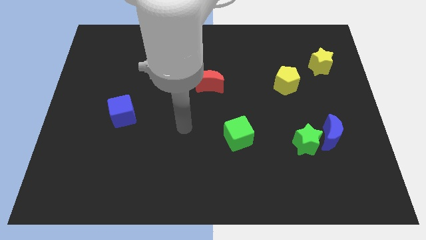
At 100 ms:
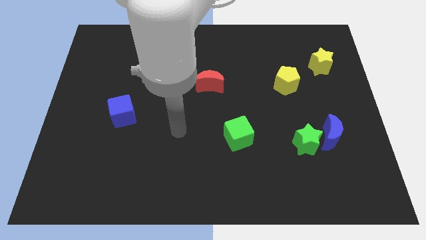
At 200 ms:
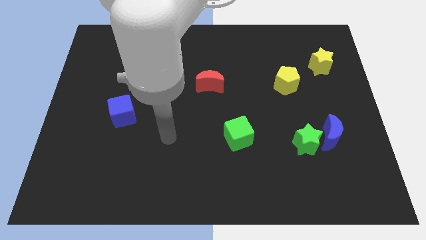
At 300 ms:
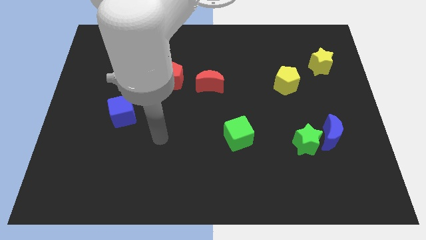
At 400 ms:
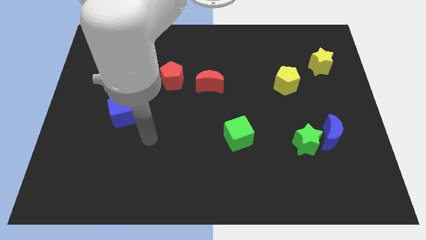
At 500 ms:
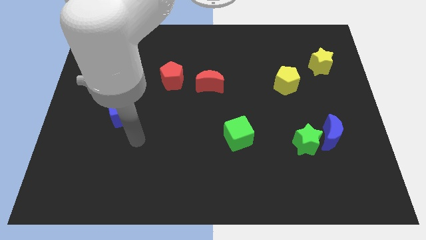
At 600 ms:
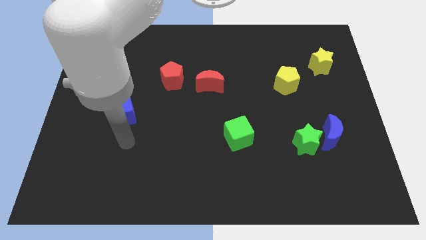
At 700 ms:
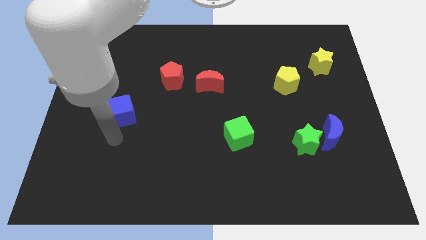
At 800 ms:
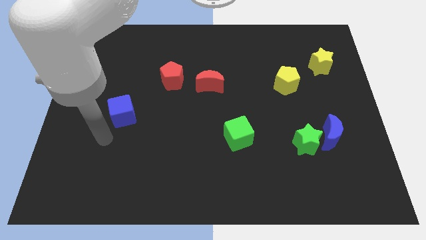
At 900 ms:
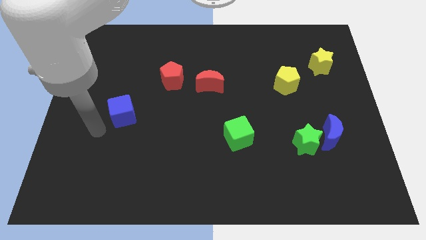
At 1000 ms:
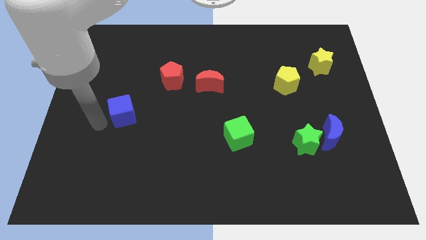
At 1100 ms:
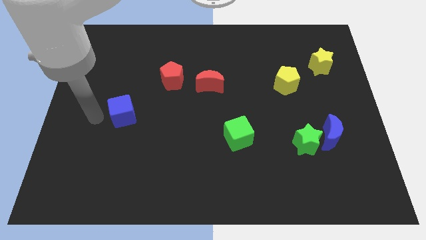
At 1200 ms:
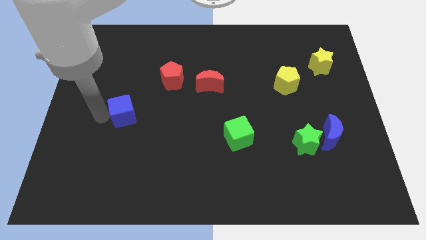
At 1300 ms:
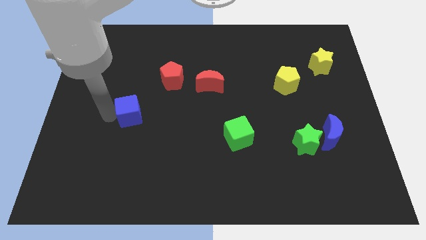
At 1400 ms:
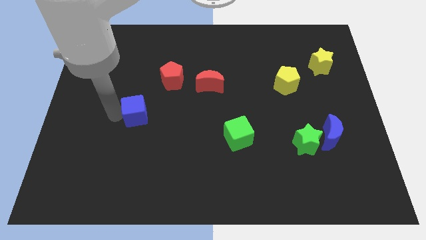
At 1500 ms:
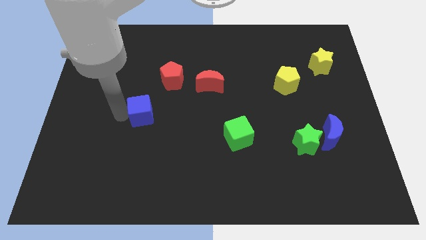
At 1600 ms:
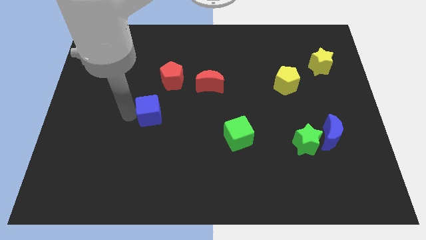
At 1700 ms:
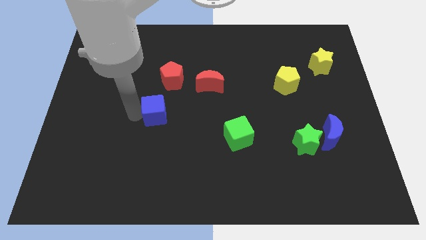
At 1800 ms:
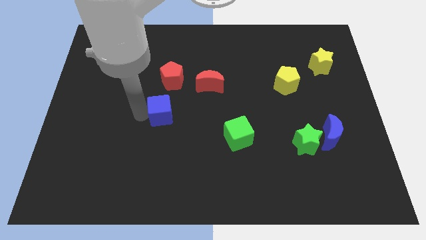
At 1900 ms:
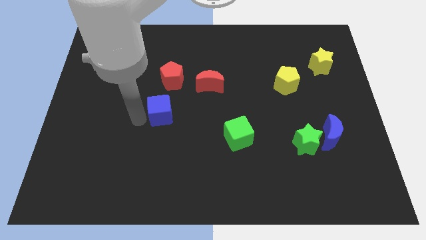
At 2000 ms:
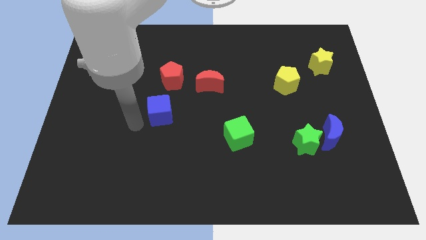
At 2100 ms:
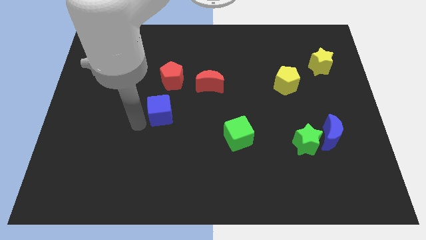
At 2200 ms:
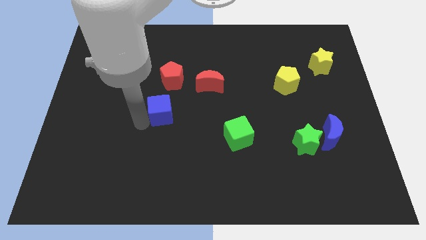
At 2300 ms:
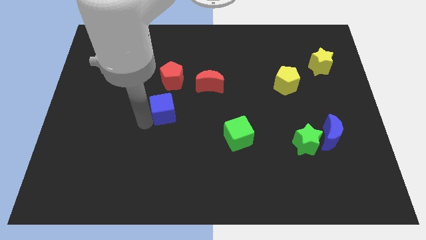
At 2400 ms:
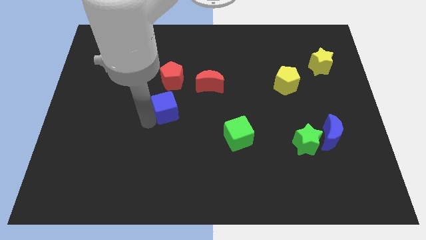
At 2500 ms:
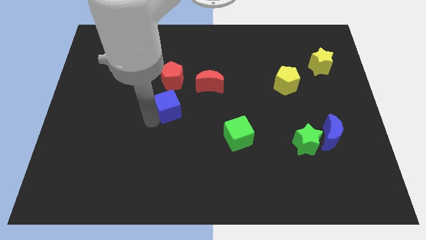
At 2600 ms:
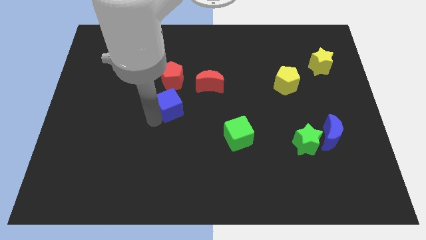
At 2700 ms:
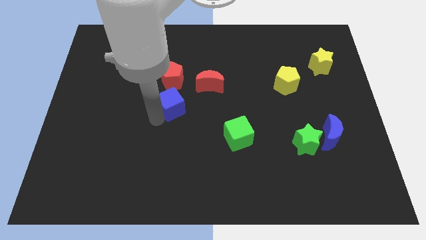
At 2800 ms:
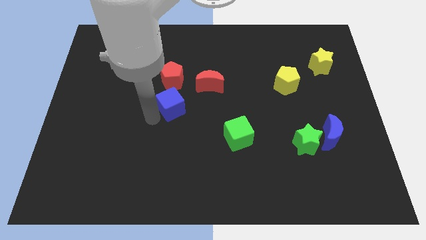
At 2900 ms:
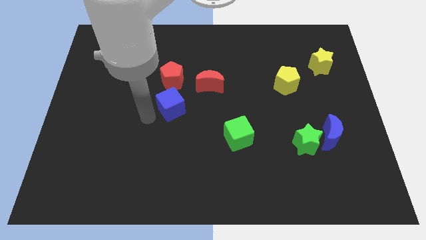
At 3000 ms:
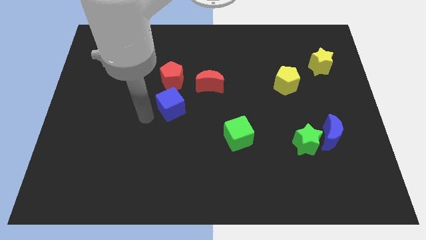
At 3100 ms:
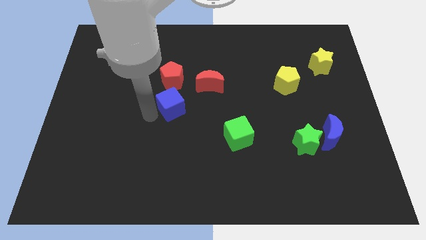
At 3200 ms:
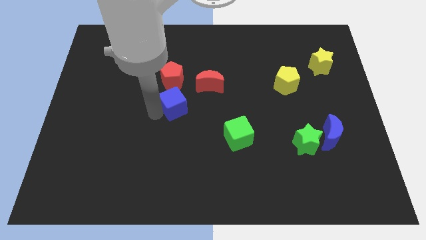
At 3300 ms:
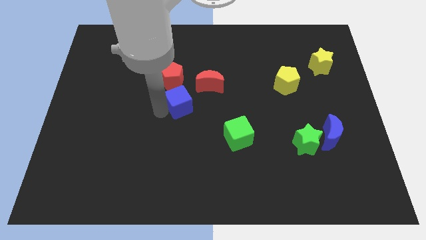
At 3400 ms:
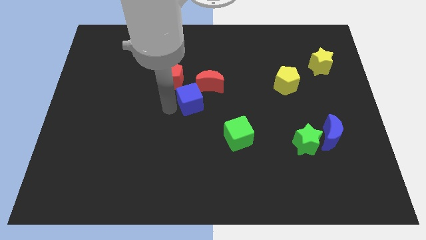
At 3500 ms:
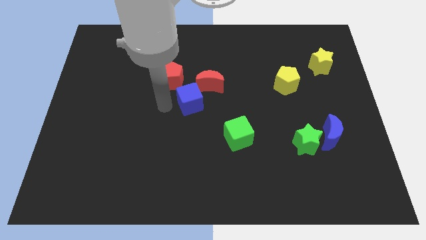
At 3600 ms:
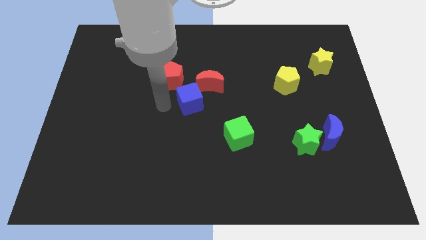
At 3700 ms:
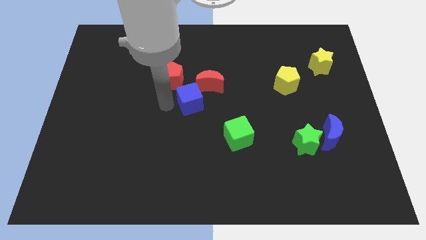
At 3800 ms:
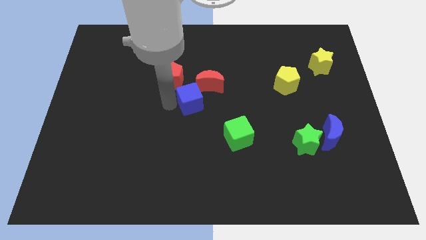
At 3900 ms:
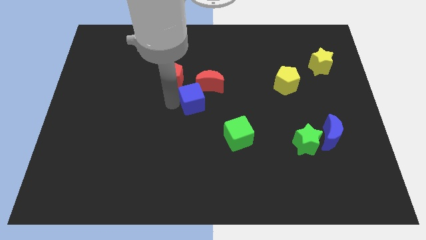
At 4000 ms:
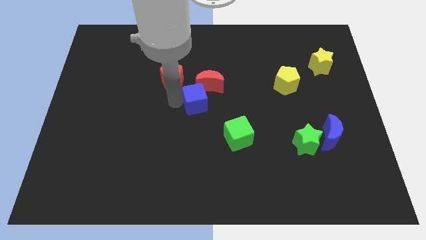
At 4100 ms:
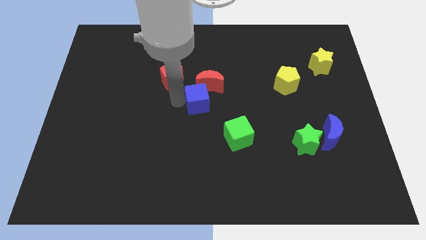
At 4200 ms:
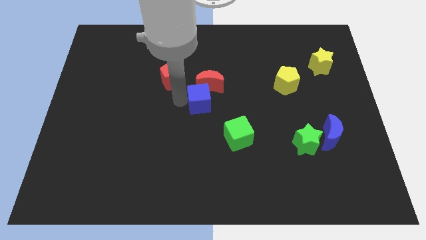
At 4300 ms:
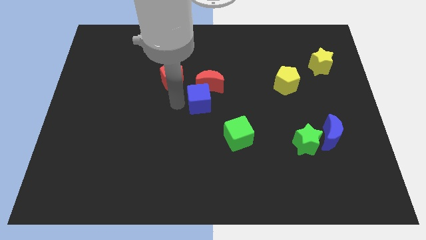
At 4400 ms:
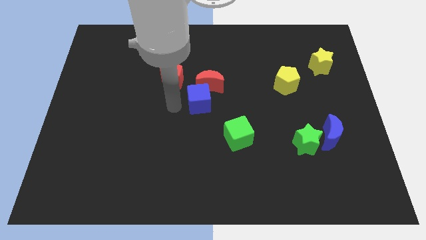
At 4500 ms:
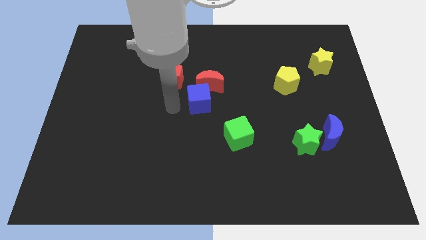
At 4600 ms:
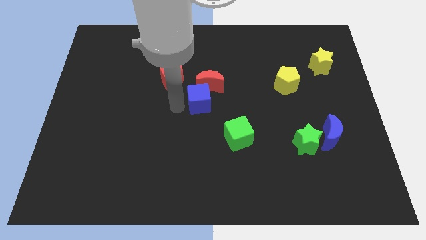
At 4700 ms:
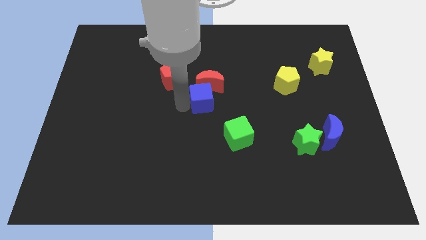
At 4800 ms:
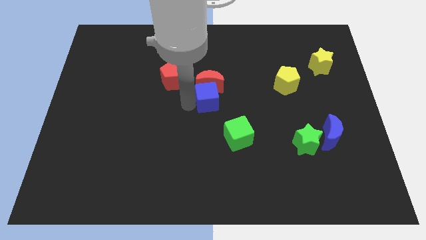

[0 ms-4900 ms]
slide the blue cube to the bottom right side of the red moon

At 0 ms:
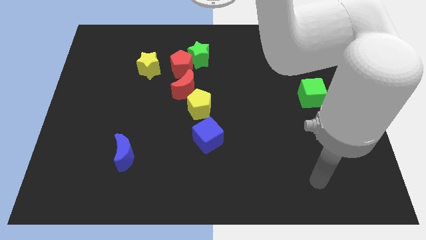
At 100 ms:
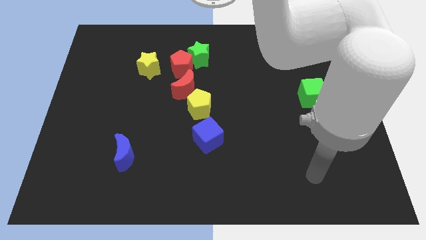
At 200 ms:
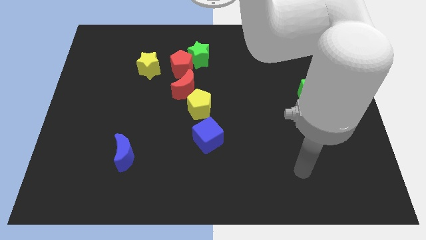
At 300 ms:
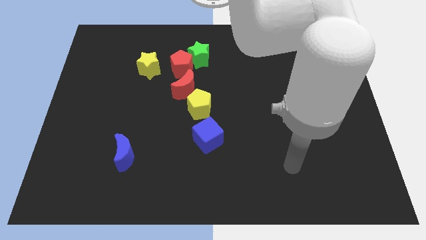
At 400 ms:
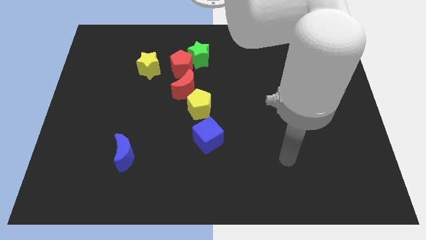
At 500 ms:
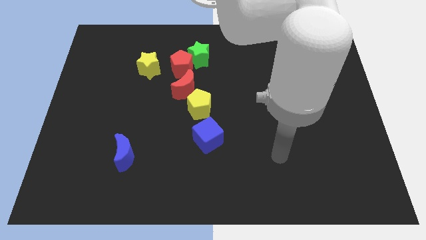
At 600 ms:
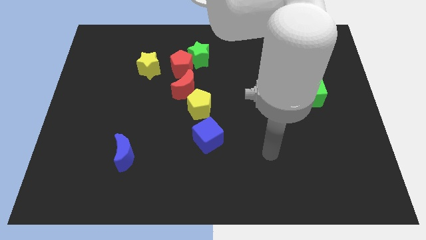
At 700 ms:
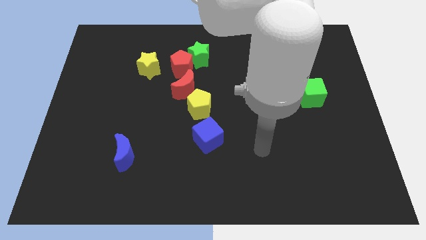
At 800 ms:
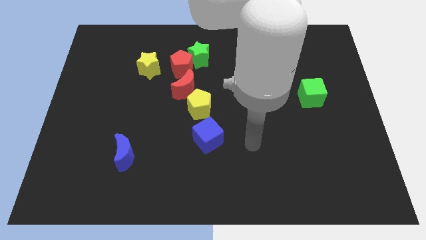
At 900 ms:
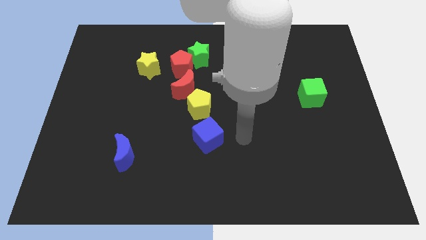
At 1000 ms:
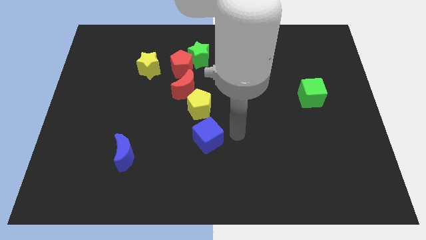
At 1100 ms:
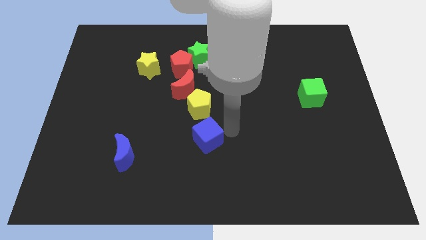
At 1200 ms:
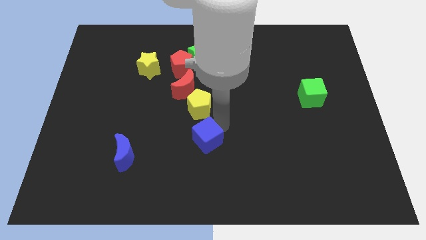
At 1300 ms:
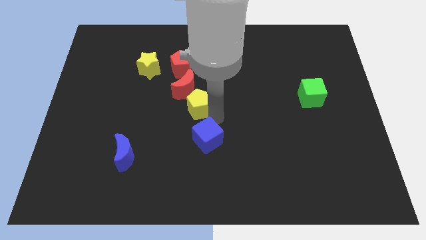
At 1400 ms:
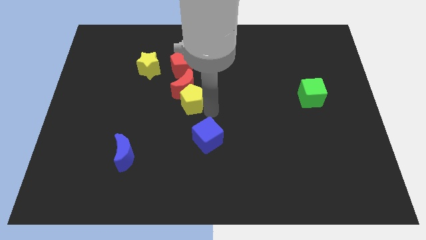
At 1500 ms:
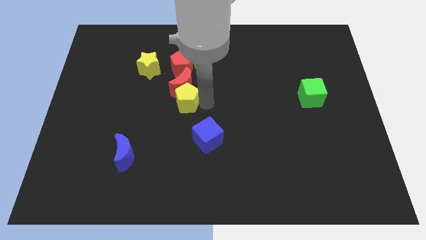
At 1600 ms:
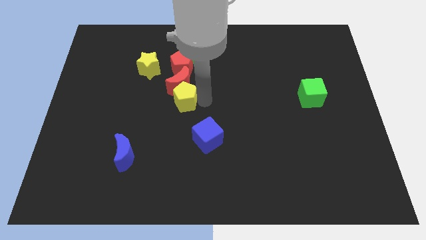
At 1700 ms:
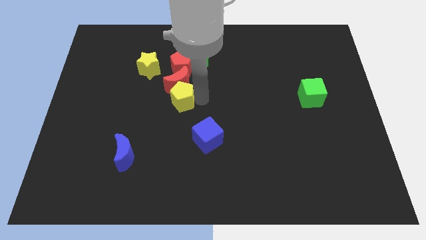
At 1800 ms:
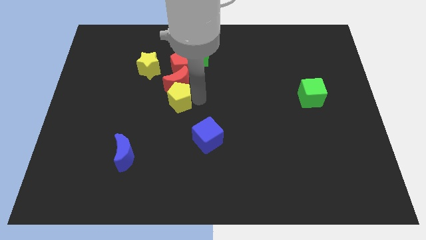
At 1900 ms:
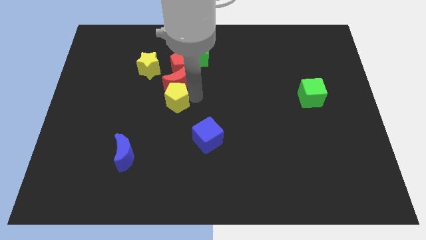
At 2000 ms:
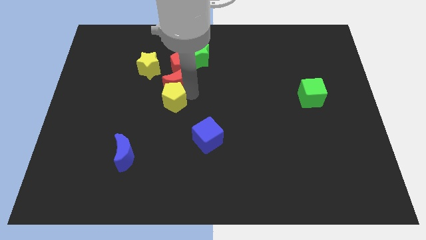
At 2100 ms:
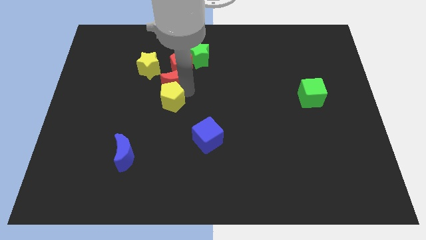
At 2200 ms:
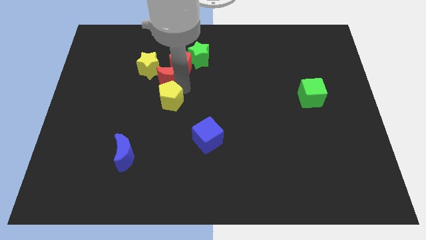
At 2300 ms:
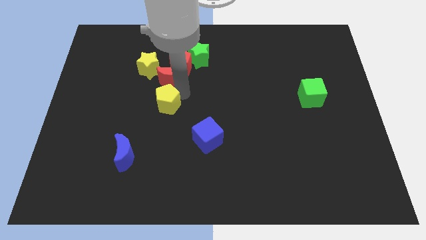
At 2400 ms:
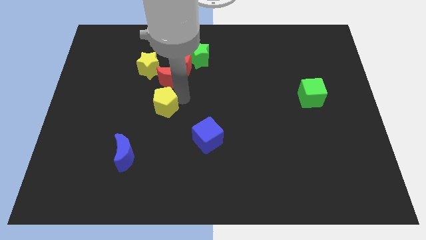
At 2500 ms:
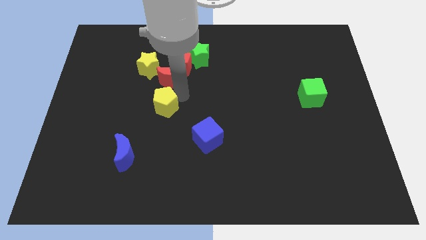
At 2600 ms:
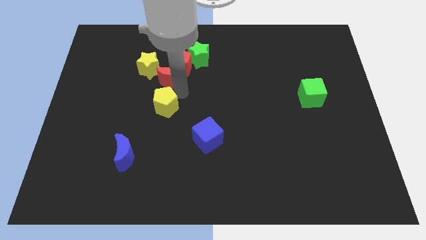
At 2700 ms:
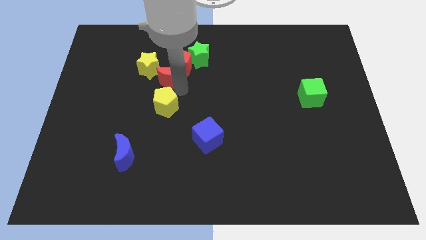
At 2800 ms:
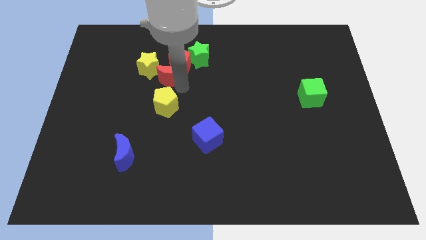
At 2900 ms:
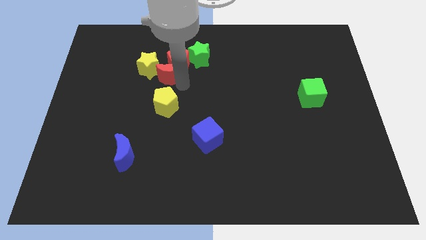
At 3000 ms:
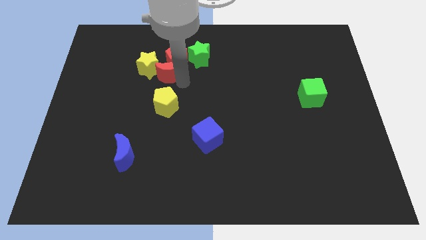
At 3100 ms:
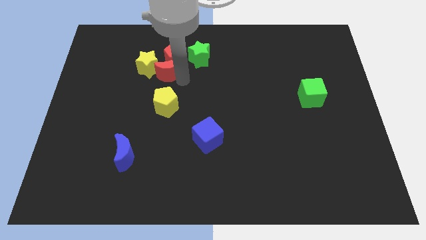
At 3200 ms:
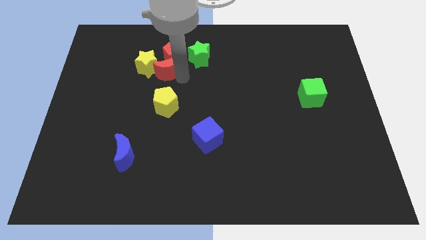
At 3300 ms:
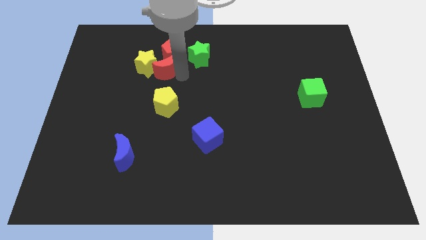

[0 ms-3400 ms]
move the red moon left of the green star
